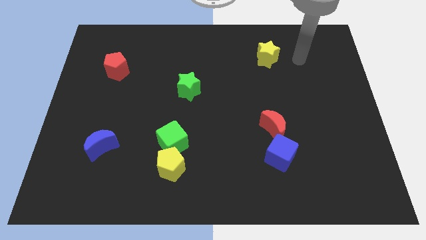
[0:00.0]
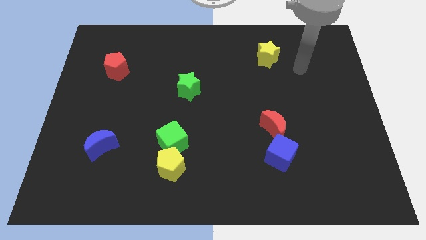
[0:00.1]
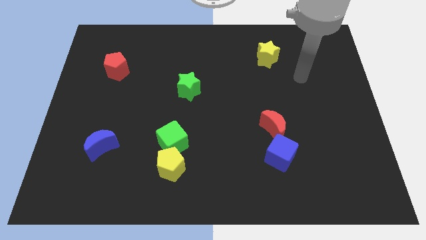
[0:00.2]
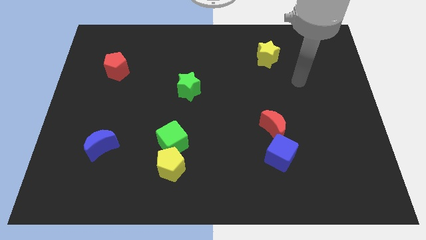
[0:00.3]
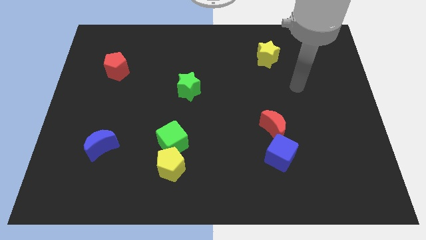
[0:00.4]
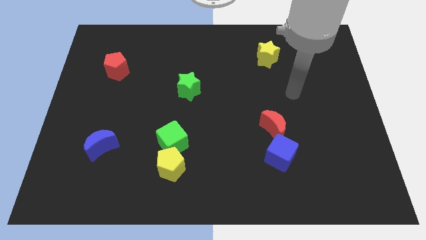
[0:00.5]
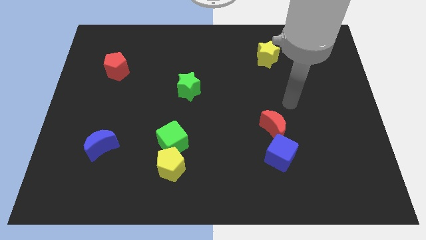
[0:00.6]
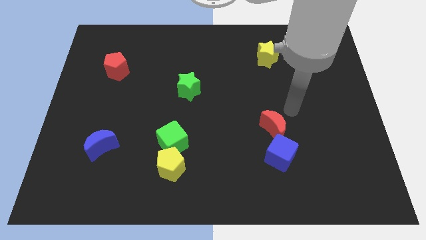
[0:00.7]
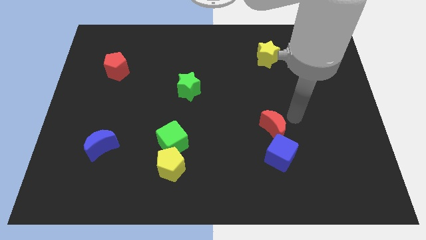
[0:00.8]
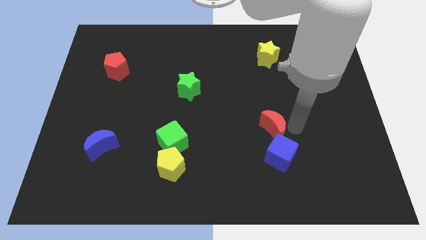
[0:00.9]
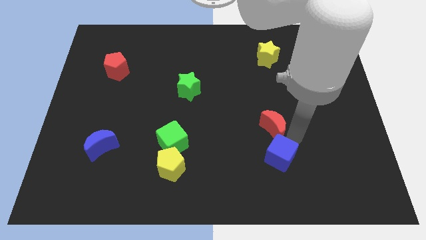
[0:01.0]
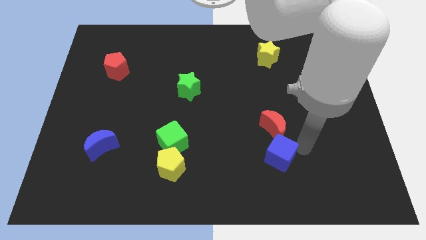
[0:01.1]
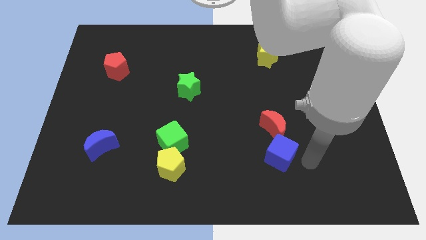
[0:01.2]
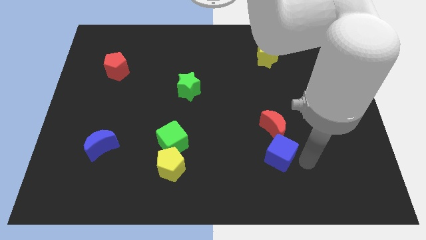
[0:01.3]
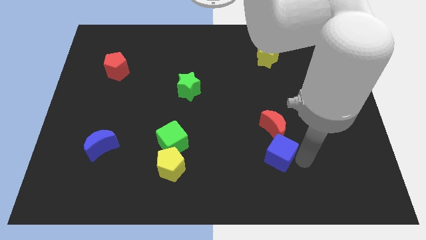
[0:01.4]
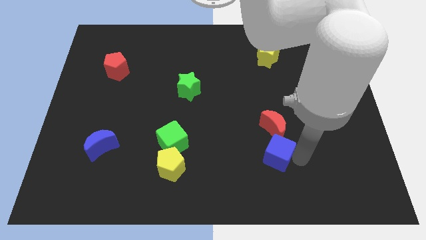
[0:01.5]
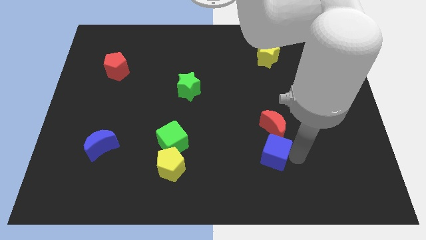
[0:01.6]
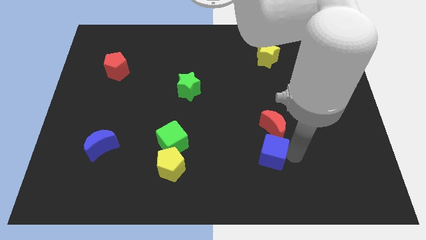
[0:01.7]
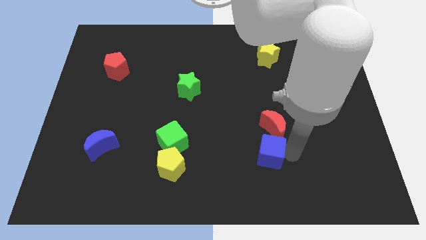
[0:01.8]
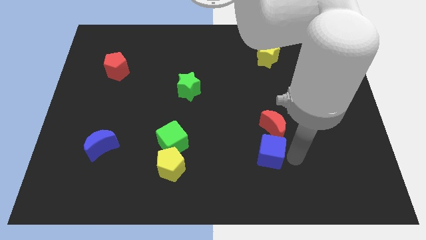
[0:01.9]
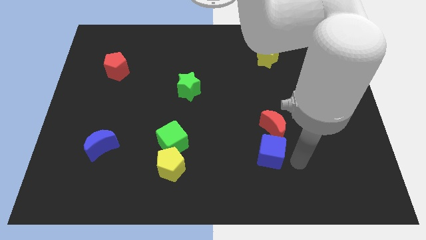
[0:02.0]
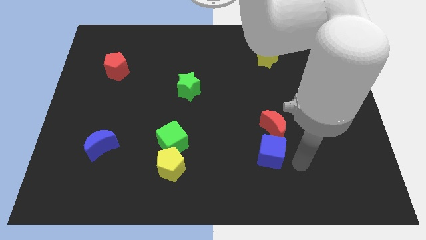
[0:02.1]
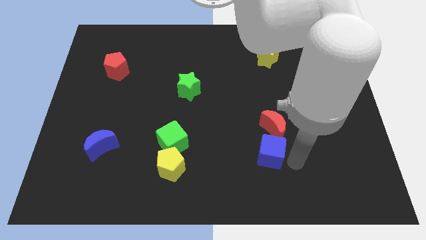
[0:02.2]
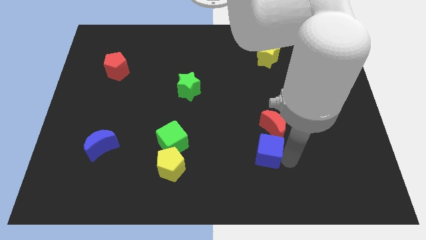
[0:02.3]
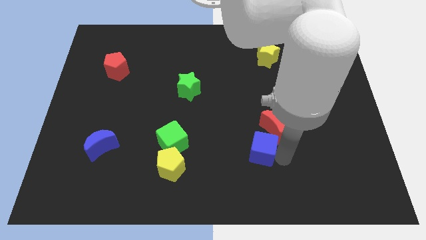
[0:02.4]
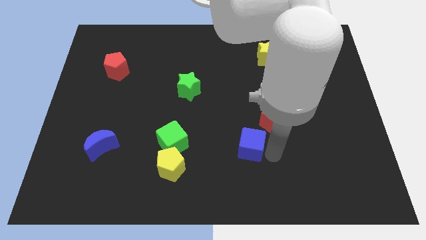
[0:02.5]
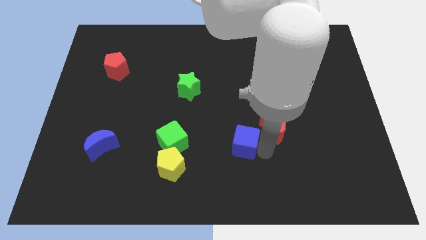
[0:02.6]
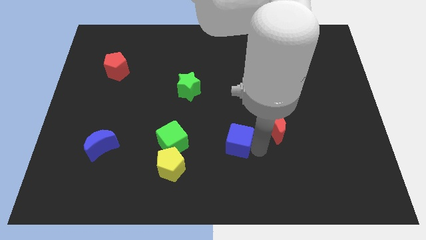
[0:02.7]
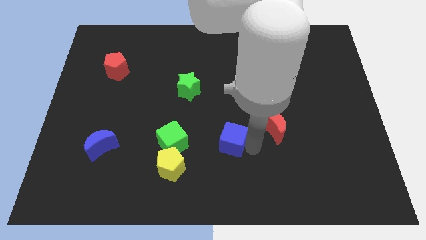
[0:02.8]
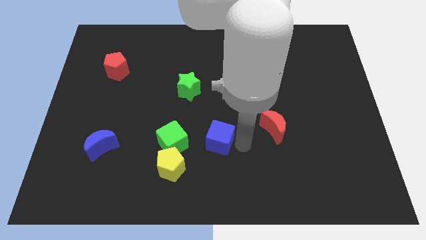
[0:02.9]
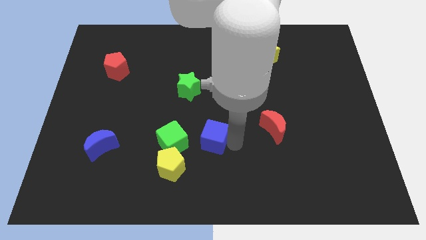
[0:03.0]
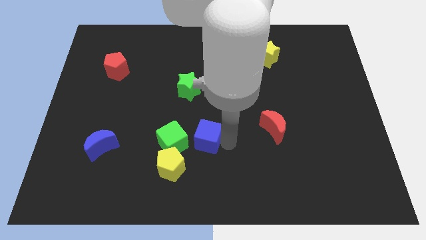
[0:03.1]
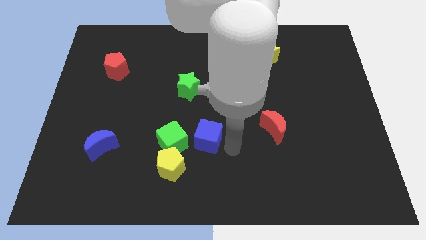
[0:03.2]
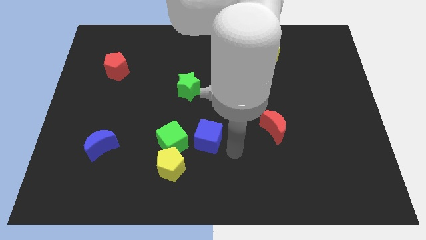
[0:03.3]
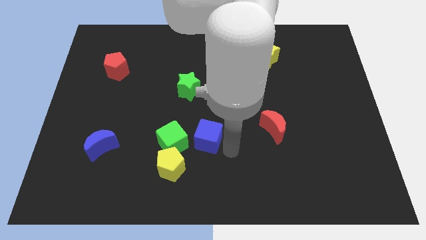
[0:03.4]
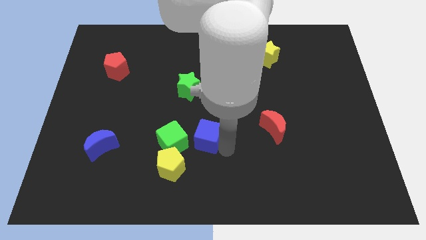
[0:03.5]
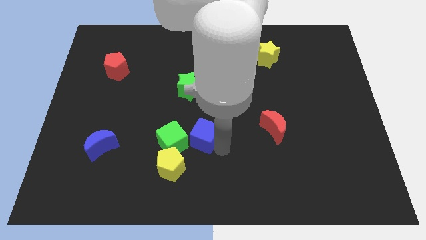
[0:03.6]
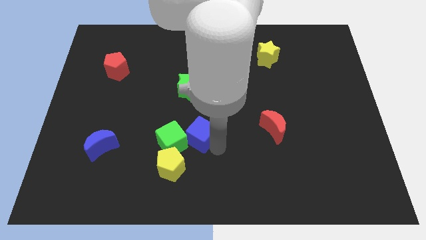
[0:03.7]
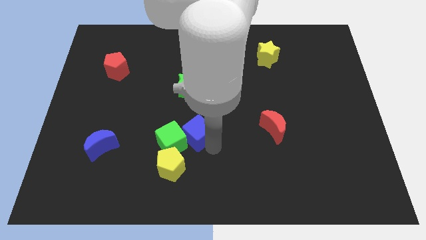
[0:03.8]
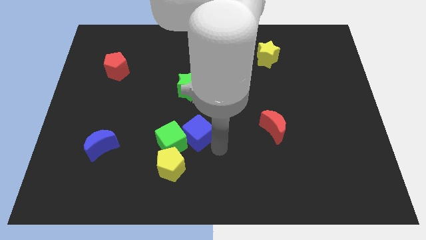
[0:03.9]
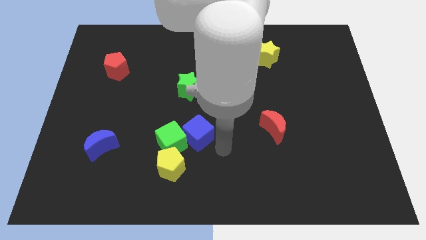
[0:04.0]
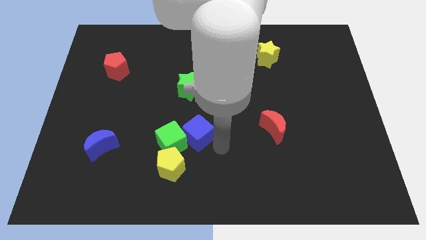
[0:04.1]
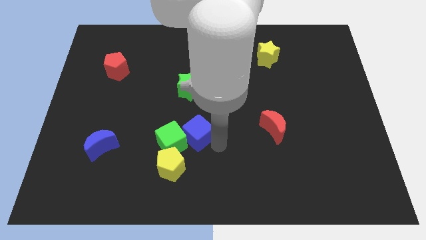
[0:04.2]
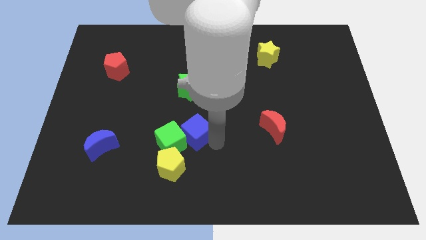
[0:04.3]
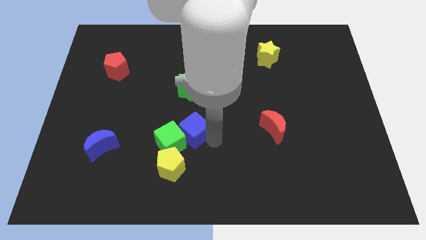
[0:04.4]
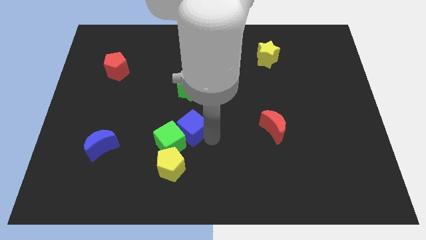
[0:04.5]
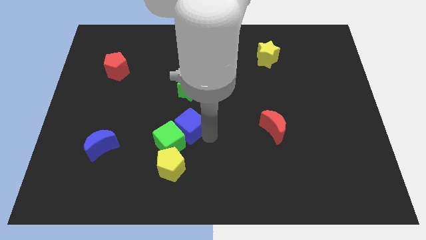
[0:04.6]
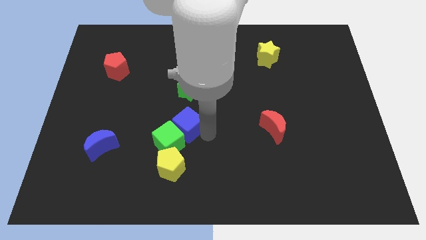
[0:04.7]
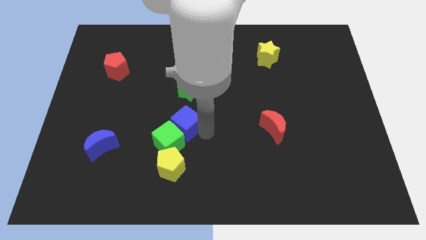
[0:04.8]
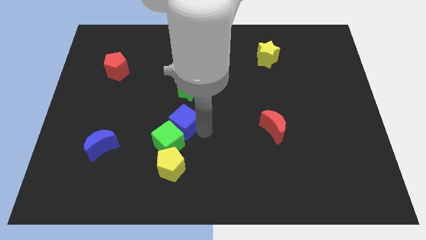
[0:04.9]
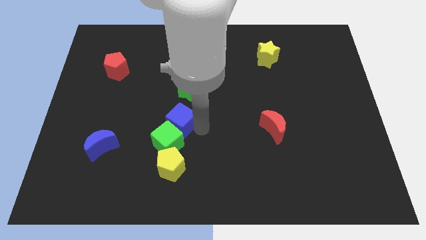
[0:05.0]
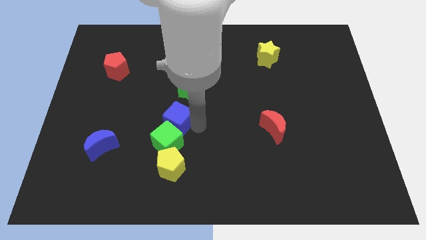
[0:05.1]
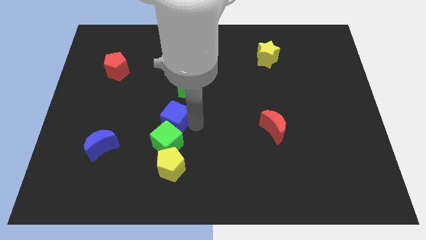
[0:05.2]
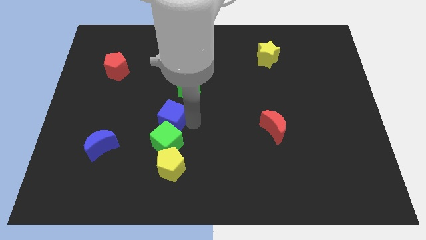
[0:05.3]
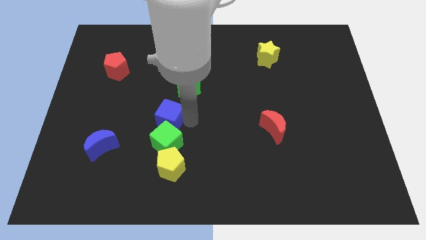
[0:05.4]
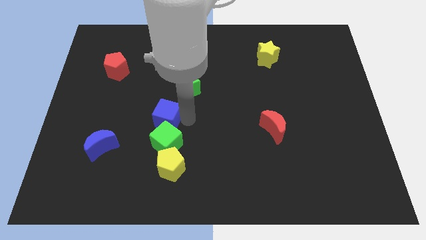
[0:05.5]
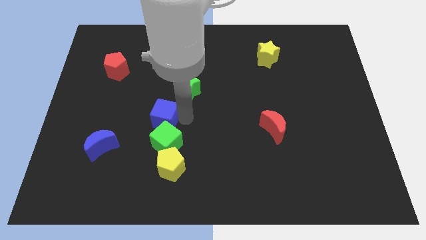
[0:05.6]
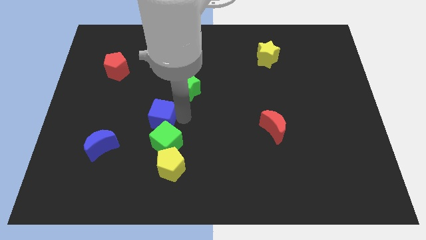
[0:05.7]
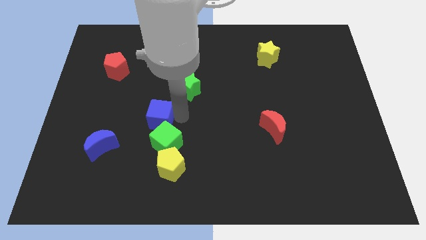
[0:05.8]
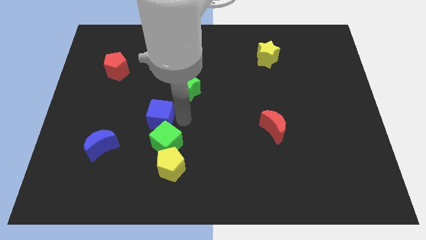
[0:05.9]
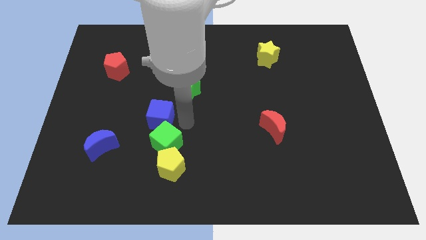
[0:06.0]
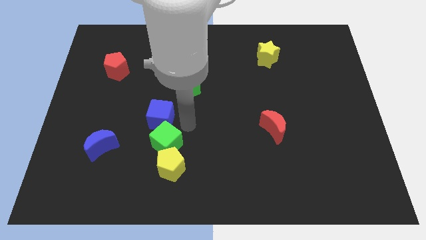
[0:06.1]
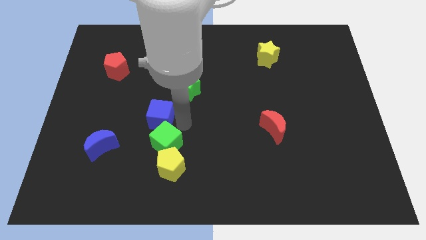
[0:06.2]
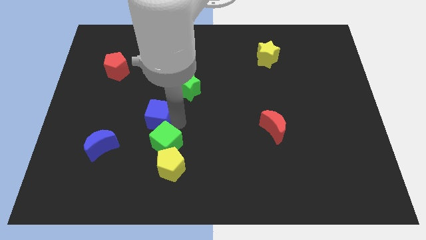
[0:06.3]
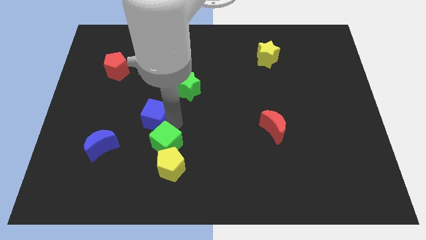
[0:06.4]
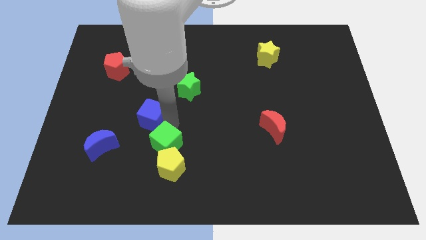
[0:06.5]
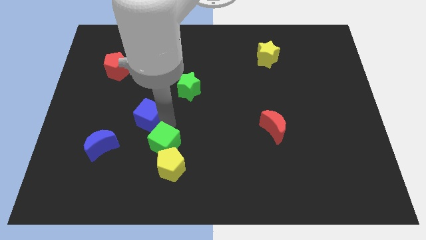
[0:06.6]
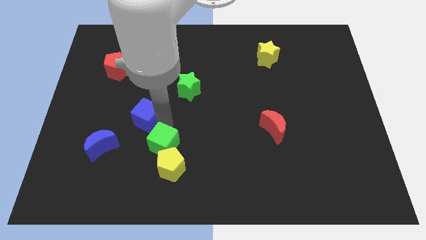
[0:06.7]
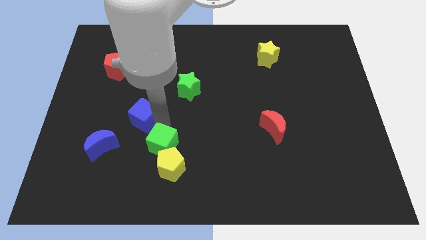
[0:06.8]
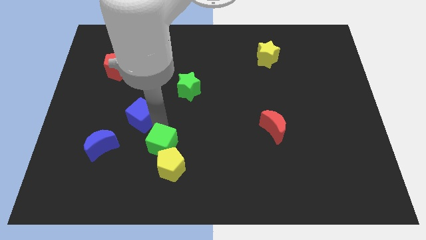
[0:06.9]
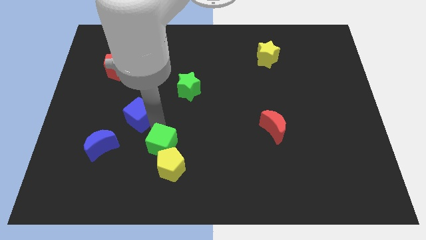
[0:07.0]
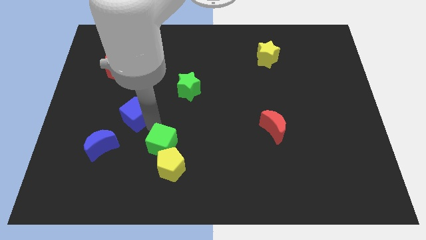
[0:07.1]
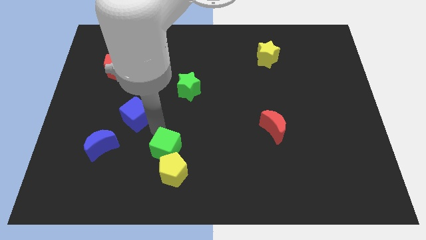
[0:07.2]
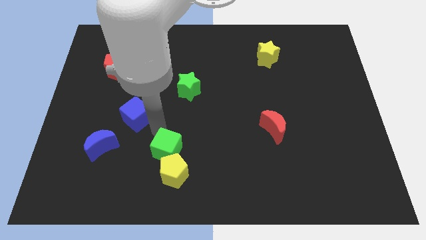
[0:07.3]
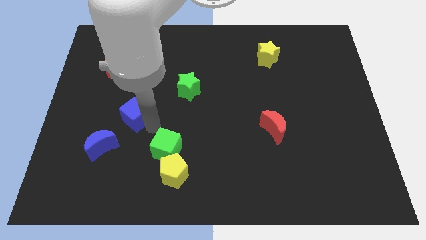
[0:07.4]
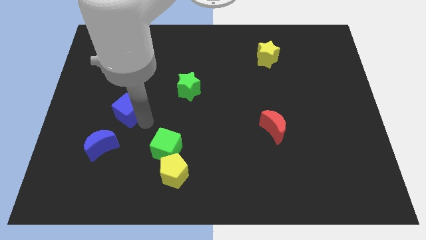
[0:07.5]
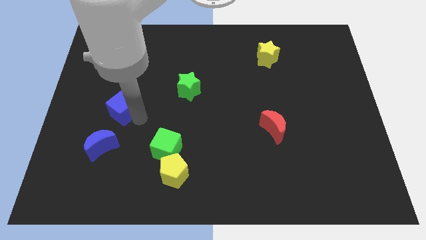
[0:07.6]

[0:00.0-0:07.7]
push the blue cube below the red pentagon
